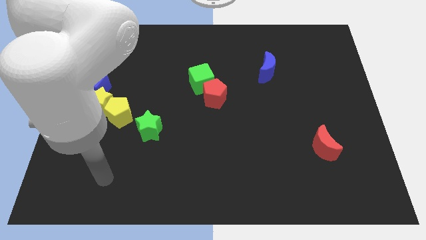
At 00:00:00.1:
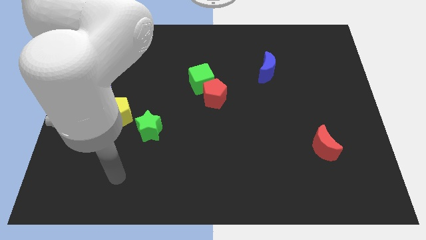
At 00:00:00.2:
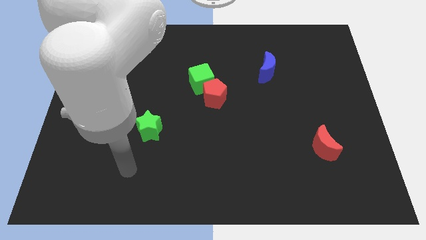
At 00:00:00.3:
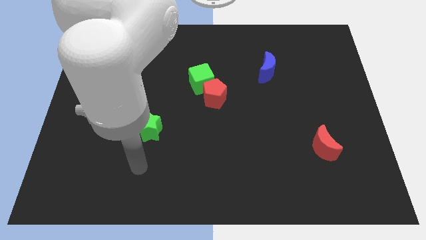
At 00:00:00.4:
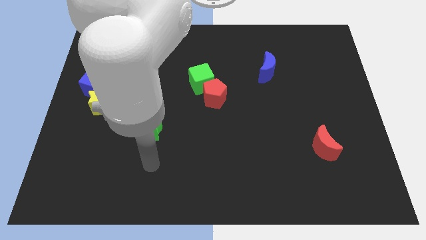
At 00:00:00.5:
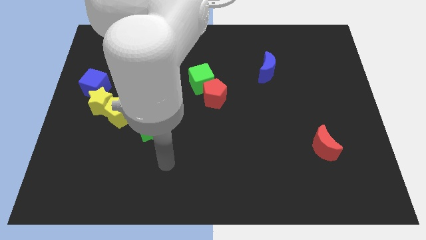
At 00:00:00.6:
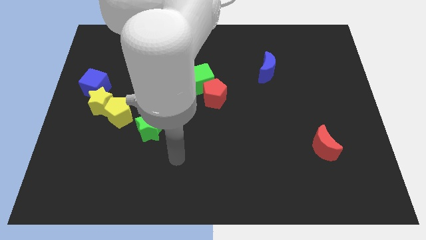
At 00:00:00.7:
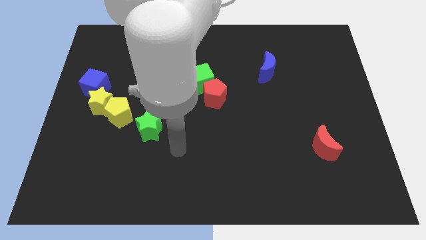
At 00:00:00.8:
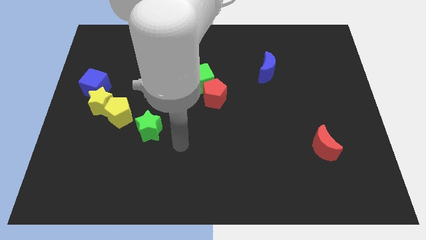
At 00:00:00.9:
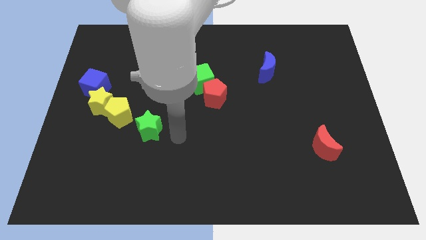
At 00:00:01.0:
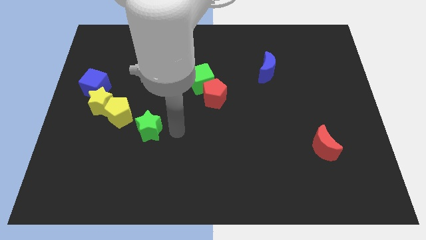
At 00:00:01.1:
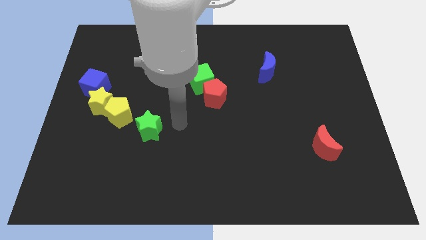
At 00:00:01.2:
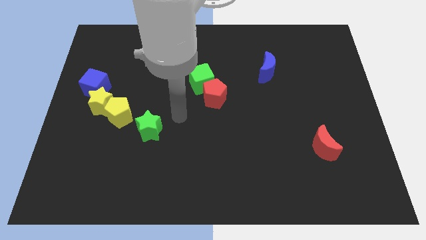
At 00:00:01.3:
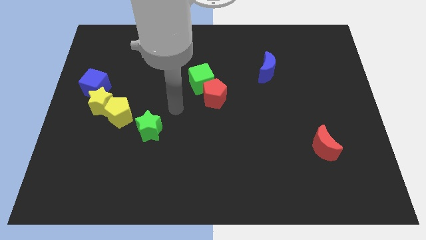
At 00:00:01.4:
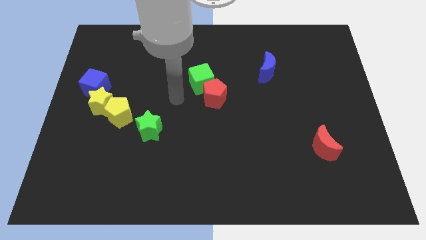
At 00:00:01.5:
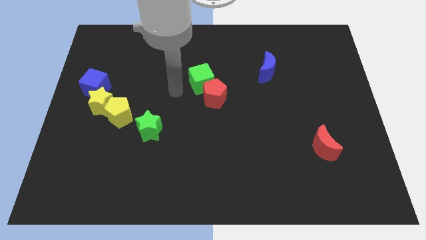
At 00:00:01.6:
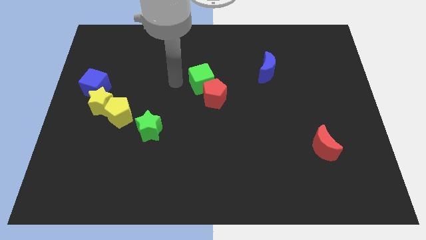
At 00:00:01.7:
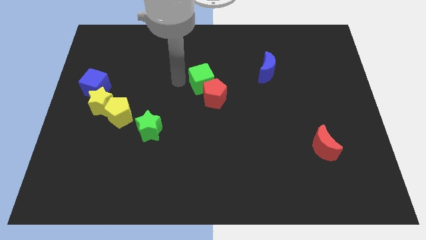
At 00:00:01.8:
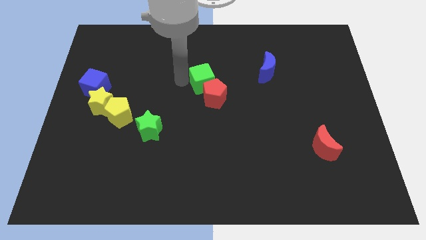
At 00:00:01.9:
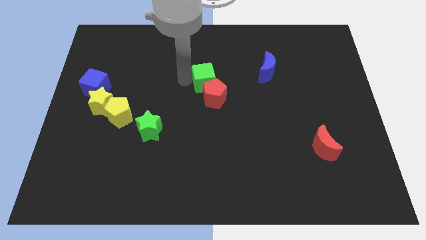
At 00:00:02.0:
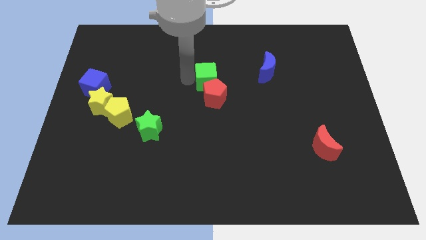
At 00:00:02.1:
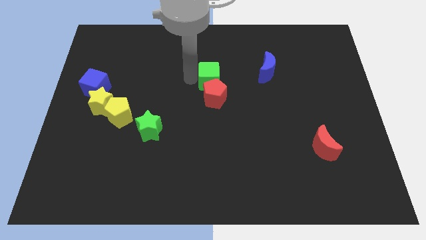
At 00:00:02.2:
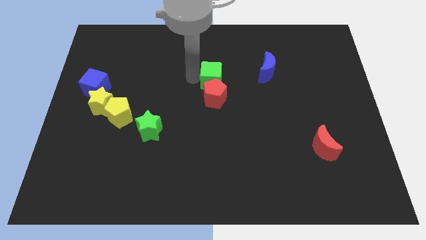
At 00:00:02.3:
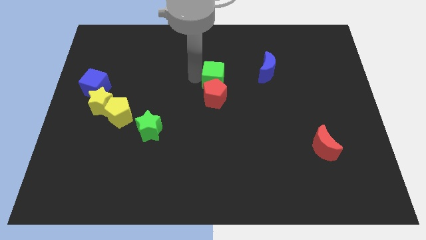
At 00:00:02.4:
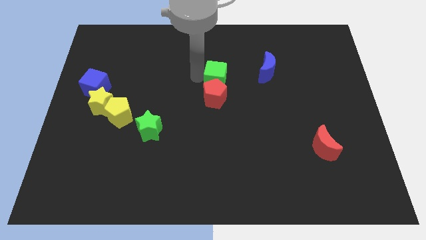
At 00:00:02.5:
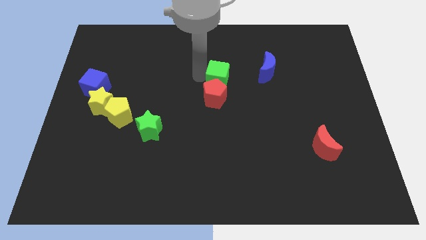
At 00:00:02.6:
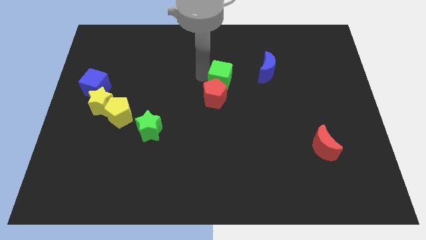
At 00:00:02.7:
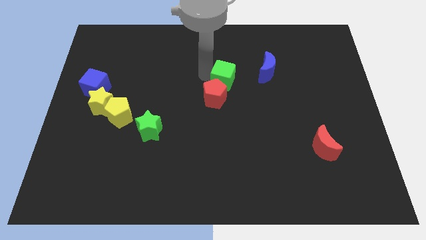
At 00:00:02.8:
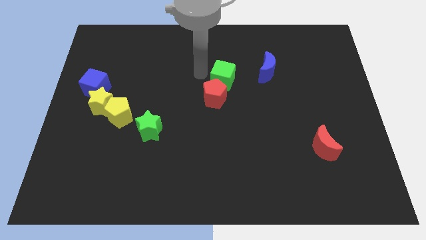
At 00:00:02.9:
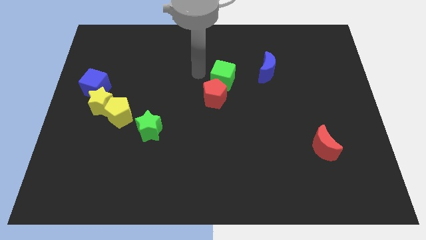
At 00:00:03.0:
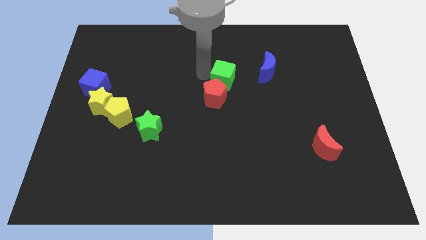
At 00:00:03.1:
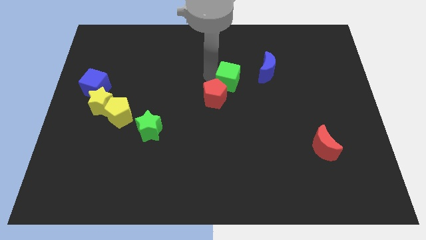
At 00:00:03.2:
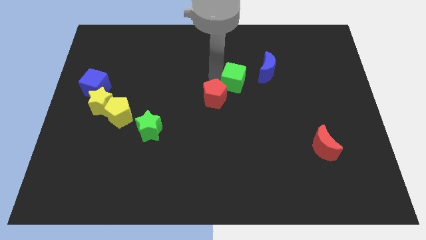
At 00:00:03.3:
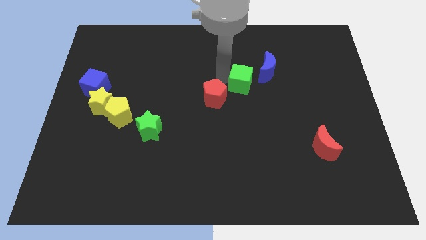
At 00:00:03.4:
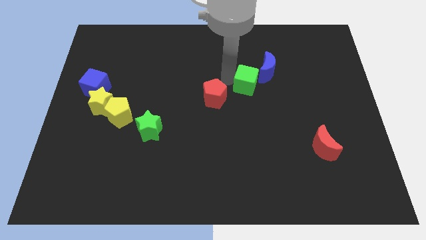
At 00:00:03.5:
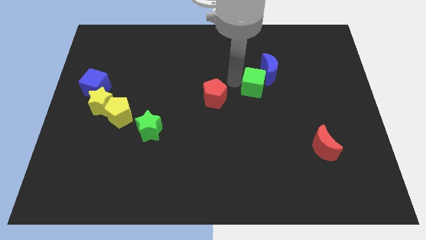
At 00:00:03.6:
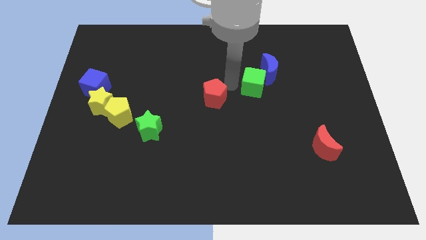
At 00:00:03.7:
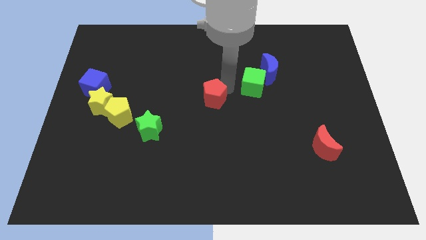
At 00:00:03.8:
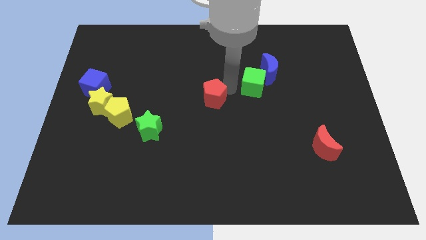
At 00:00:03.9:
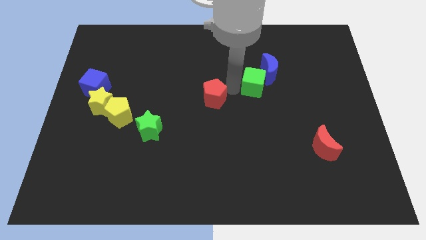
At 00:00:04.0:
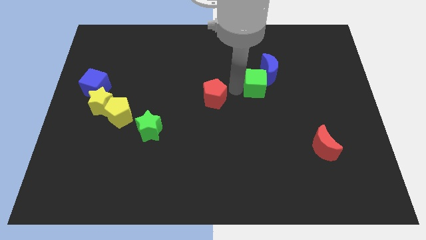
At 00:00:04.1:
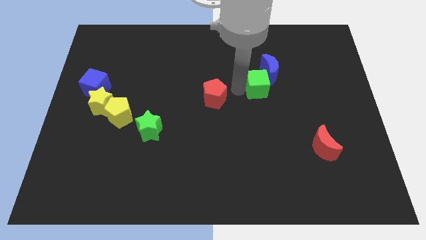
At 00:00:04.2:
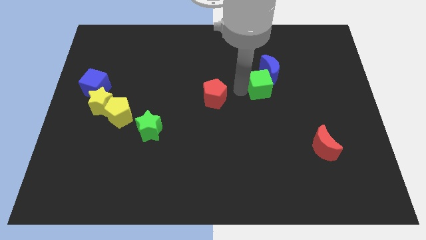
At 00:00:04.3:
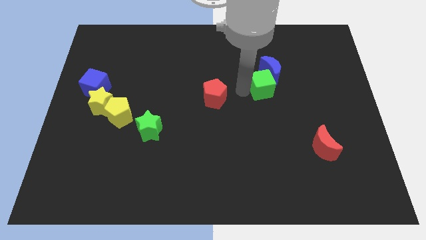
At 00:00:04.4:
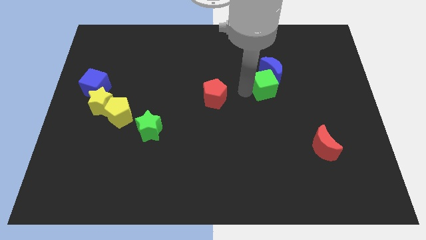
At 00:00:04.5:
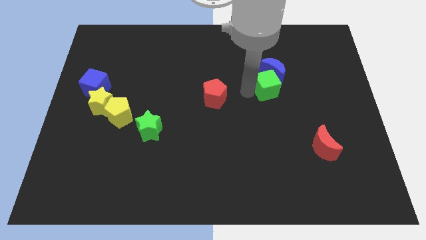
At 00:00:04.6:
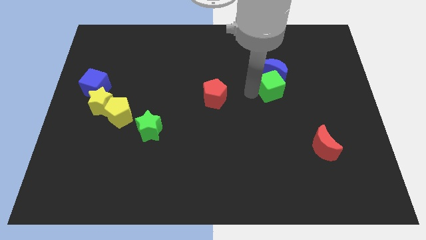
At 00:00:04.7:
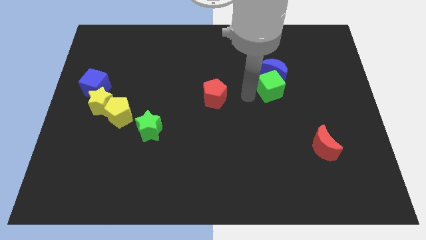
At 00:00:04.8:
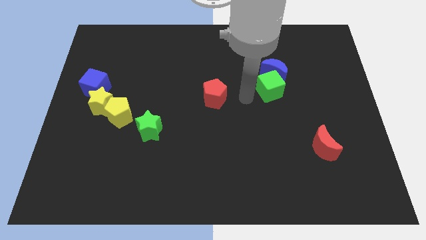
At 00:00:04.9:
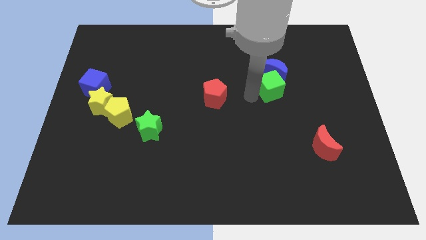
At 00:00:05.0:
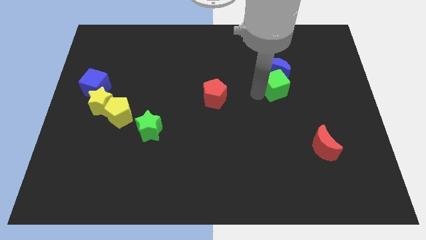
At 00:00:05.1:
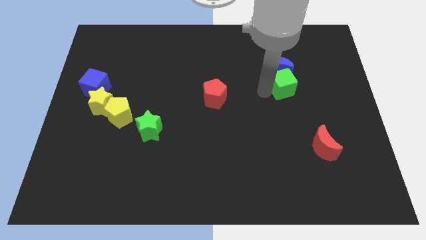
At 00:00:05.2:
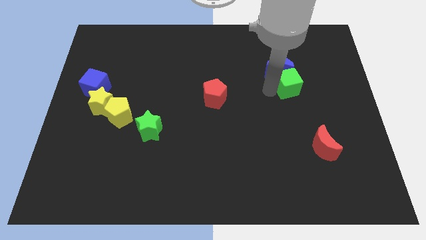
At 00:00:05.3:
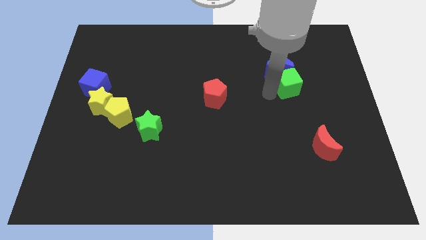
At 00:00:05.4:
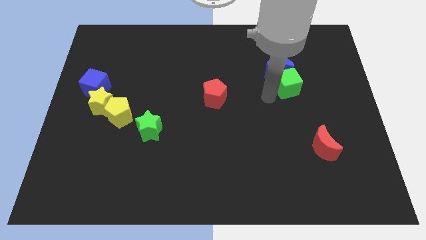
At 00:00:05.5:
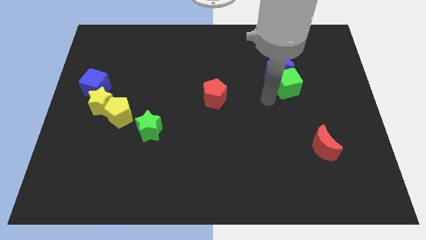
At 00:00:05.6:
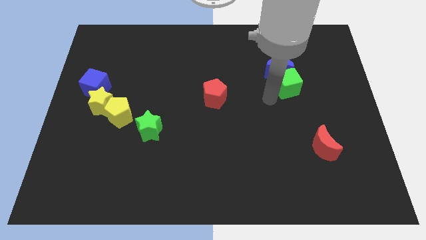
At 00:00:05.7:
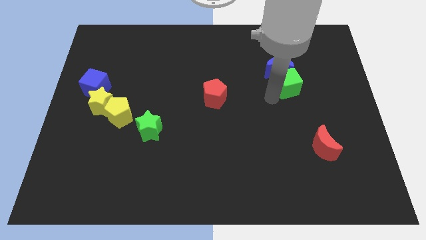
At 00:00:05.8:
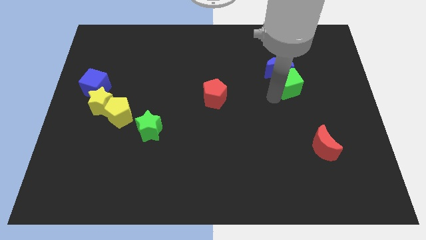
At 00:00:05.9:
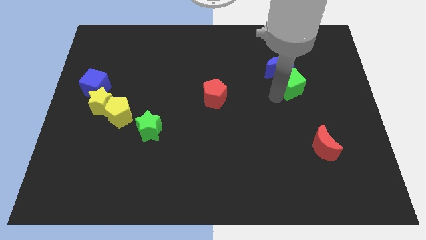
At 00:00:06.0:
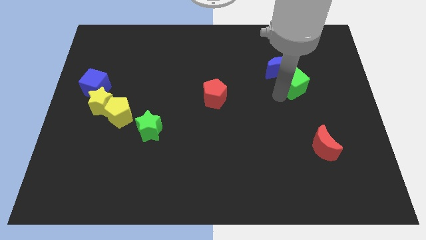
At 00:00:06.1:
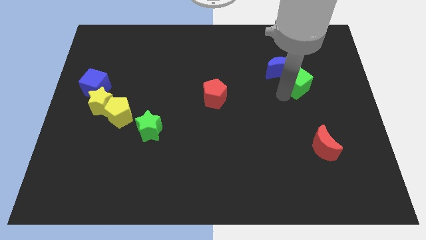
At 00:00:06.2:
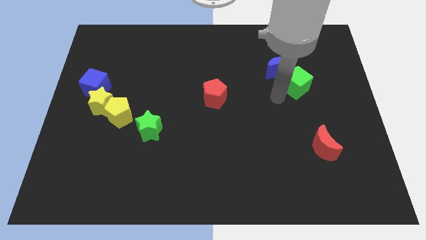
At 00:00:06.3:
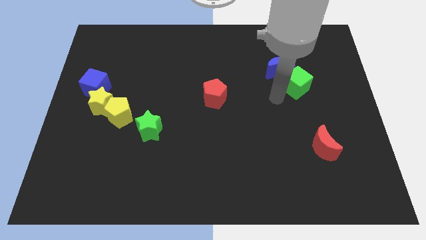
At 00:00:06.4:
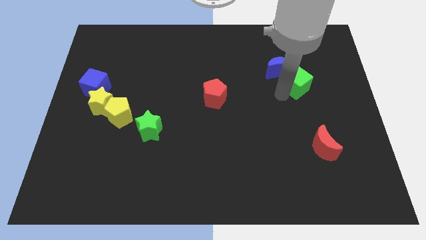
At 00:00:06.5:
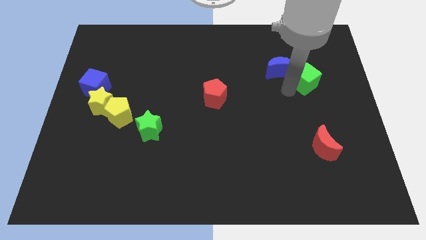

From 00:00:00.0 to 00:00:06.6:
push the green cube to the right of the blue moon

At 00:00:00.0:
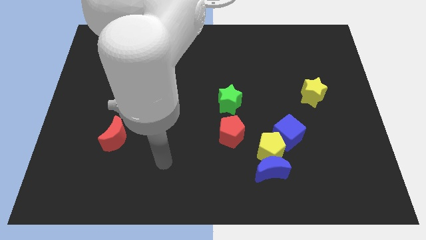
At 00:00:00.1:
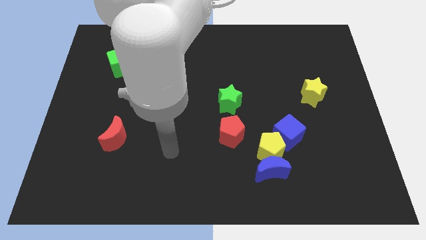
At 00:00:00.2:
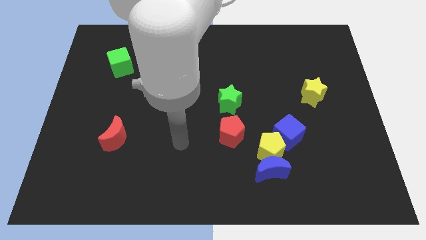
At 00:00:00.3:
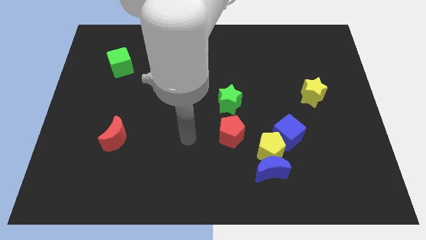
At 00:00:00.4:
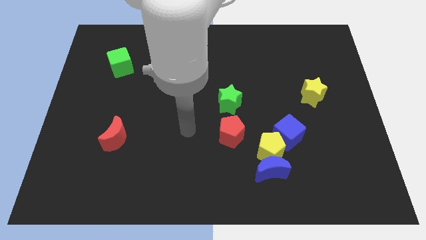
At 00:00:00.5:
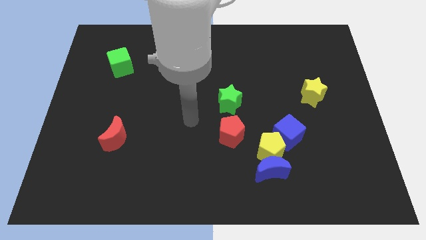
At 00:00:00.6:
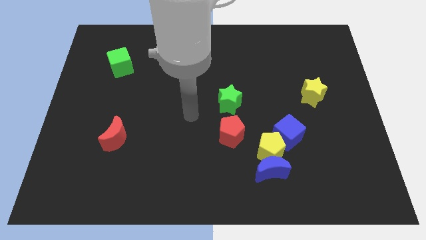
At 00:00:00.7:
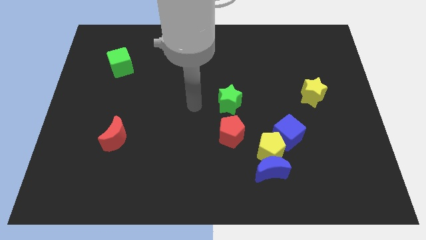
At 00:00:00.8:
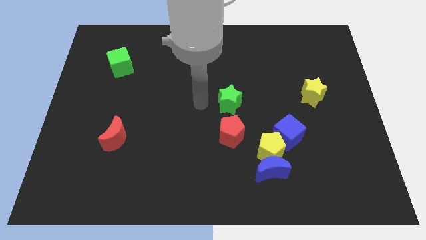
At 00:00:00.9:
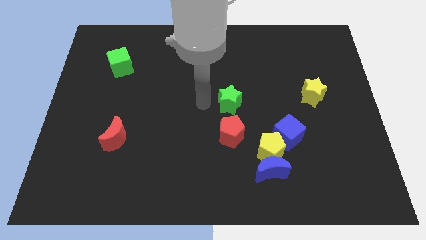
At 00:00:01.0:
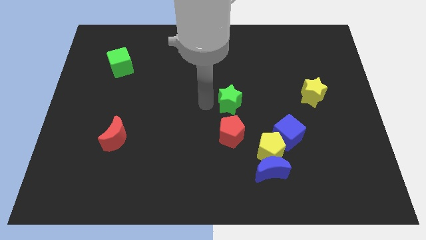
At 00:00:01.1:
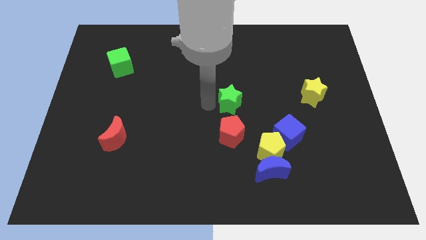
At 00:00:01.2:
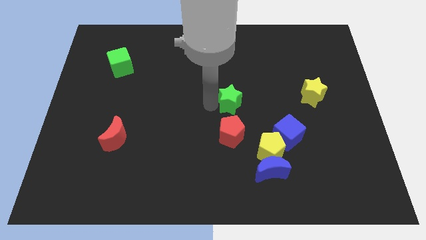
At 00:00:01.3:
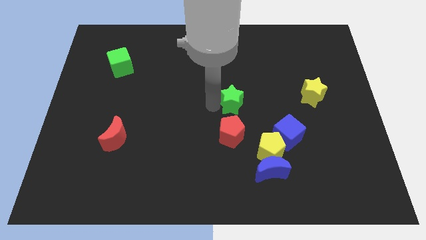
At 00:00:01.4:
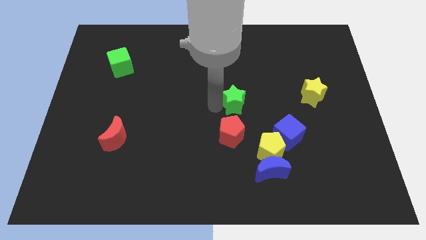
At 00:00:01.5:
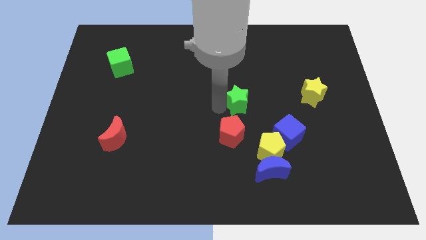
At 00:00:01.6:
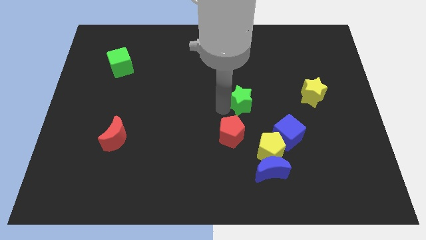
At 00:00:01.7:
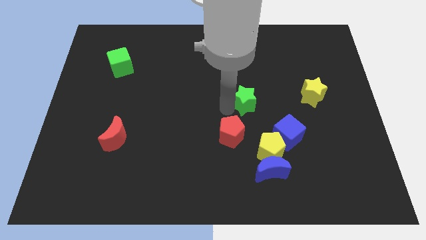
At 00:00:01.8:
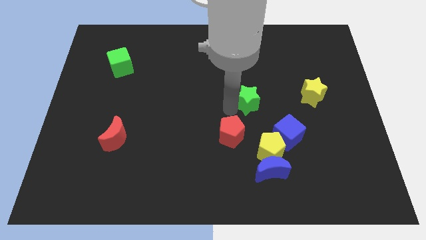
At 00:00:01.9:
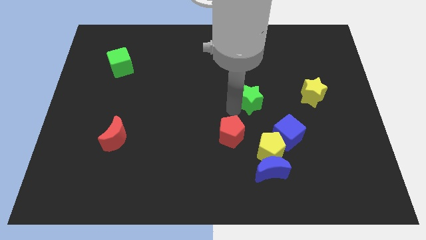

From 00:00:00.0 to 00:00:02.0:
slide the green star to the left of the yellow star
